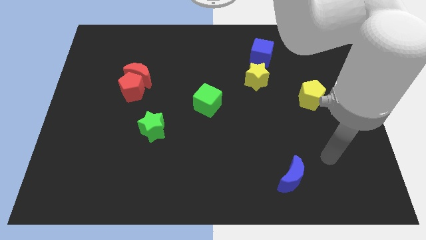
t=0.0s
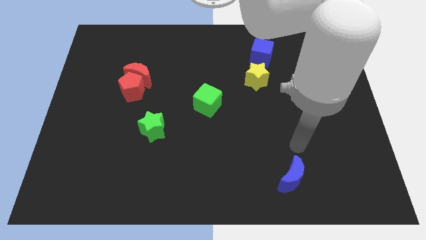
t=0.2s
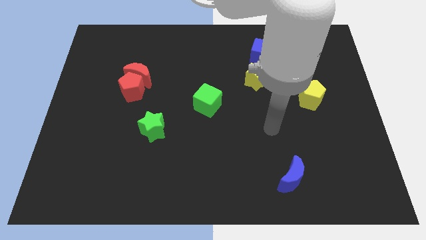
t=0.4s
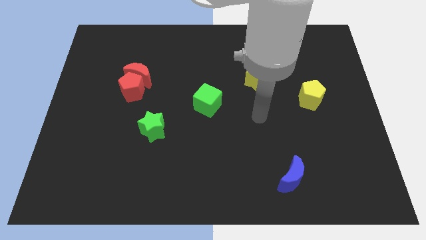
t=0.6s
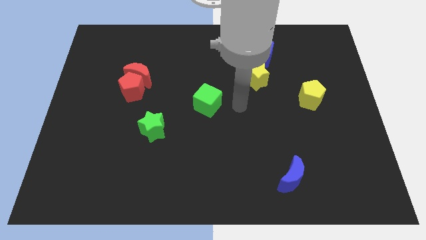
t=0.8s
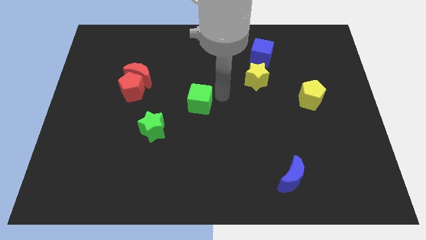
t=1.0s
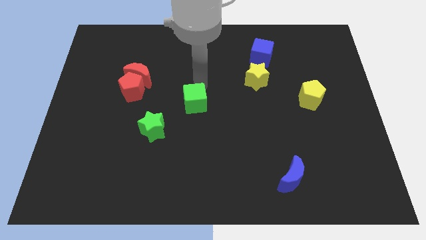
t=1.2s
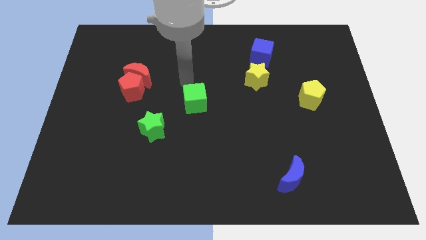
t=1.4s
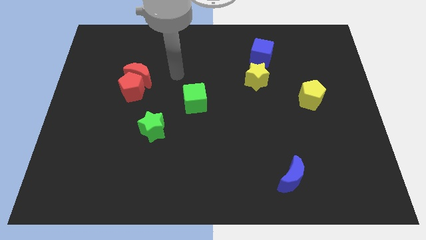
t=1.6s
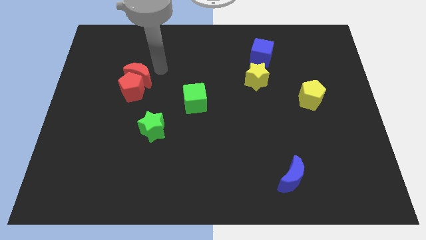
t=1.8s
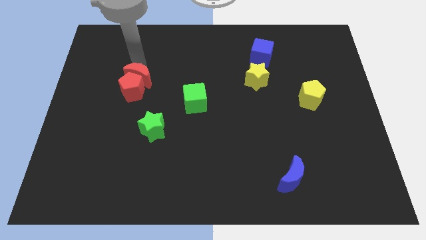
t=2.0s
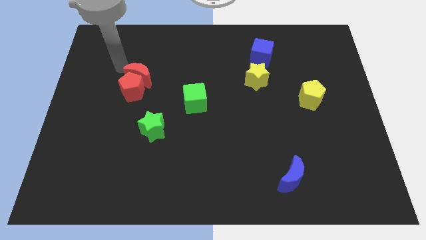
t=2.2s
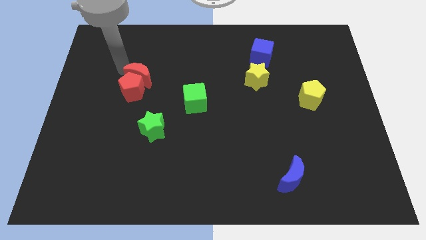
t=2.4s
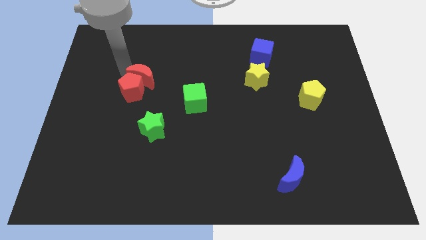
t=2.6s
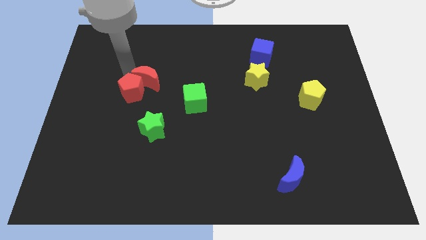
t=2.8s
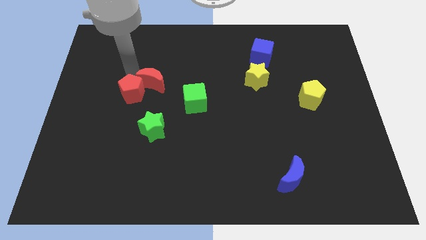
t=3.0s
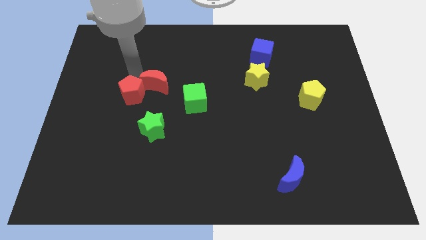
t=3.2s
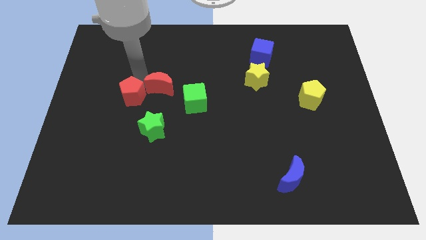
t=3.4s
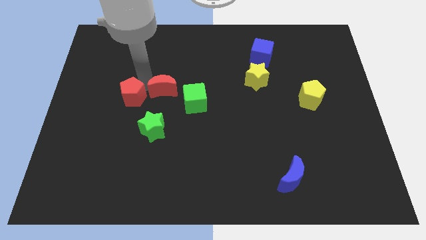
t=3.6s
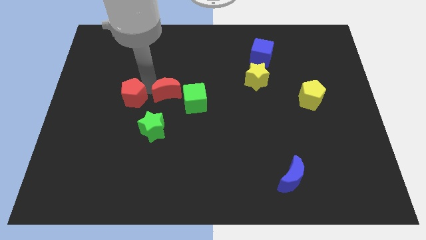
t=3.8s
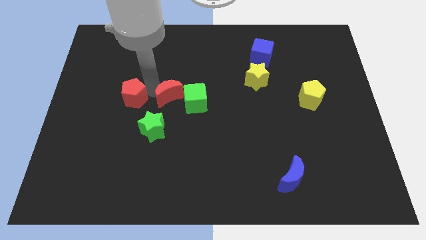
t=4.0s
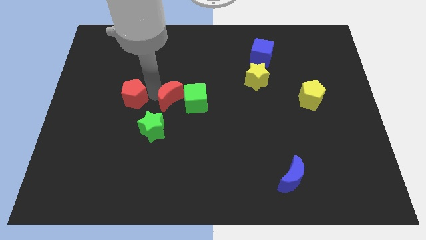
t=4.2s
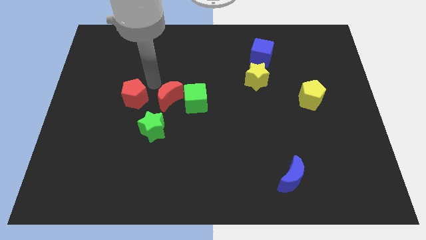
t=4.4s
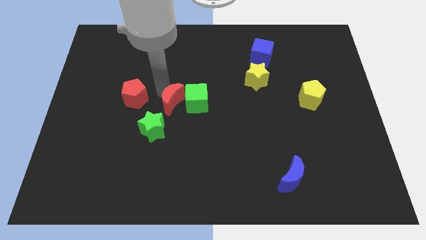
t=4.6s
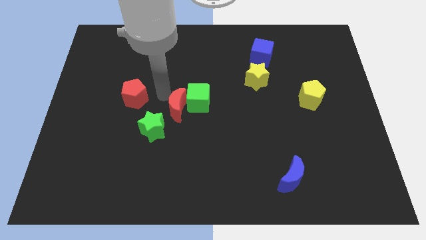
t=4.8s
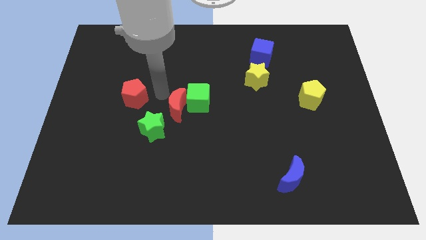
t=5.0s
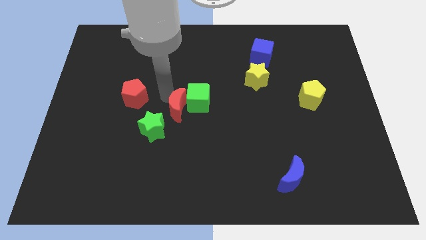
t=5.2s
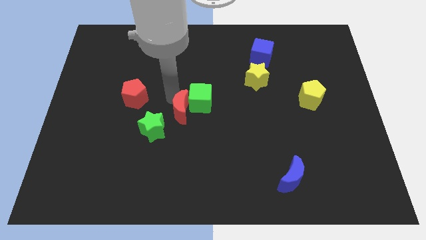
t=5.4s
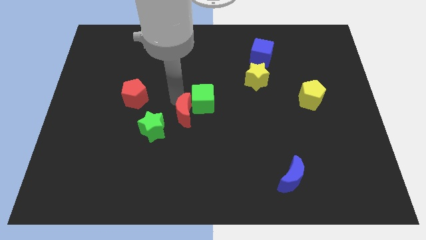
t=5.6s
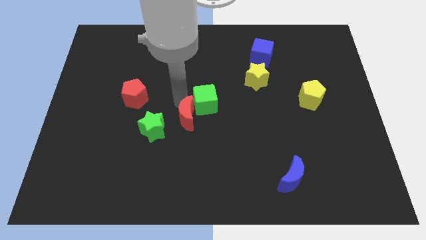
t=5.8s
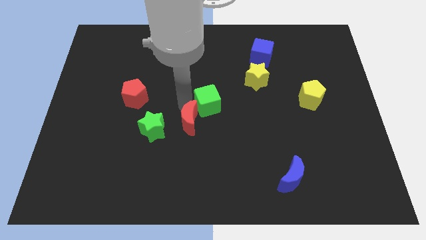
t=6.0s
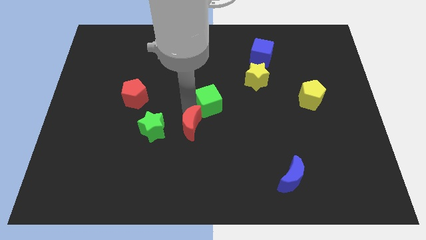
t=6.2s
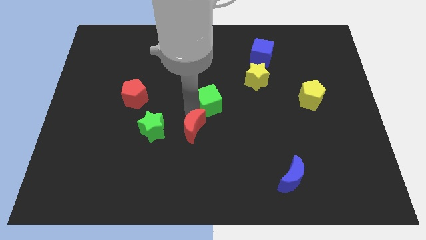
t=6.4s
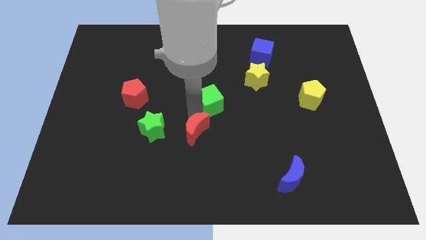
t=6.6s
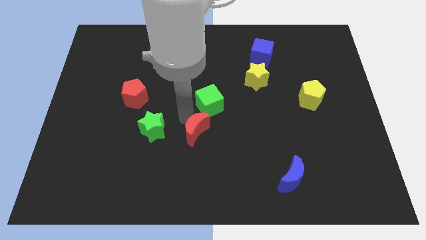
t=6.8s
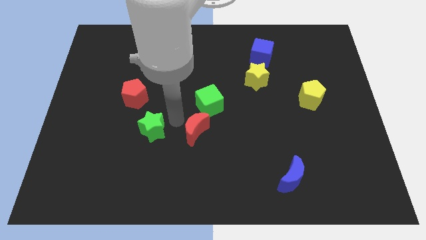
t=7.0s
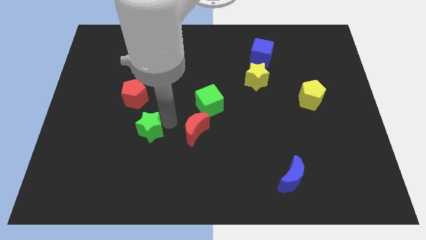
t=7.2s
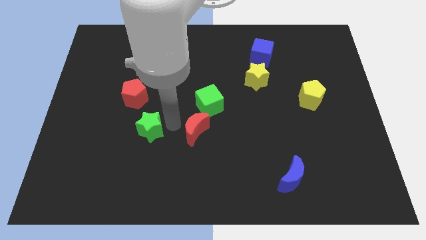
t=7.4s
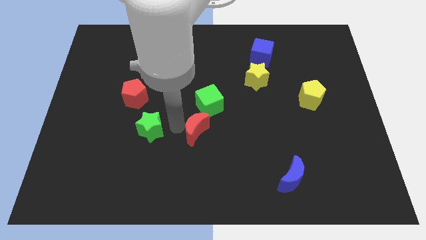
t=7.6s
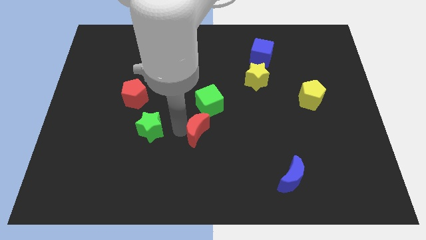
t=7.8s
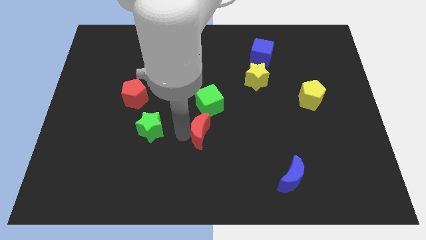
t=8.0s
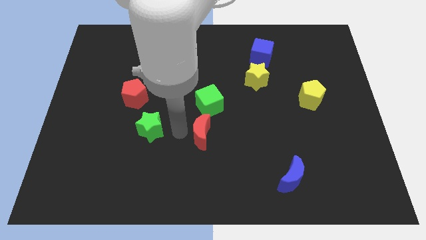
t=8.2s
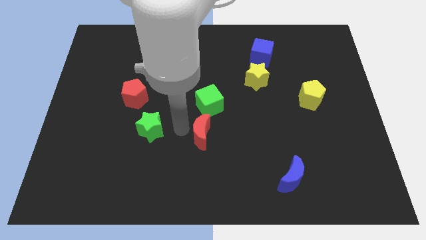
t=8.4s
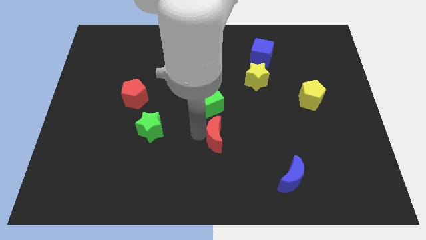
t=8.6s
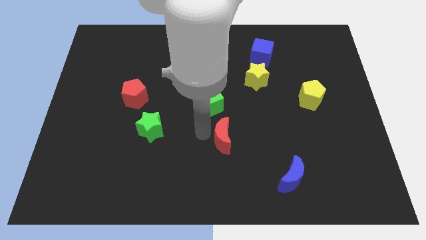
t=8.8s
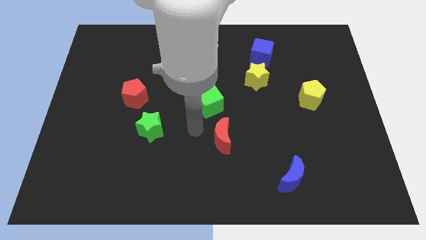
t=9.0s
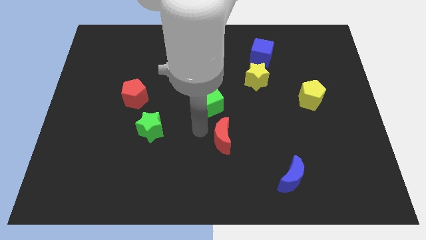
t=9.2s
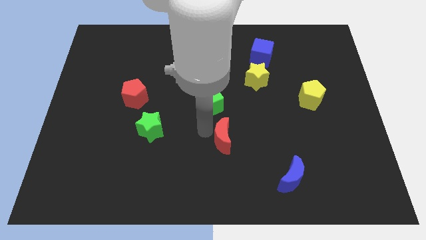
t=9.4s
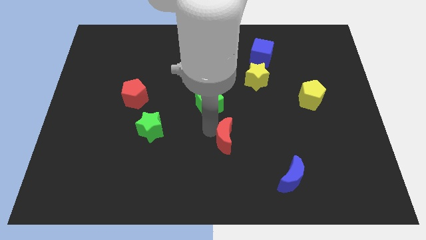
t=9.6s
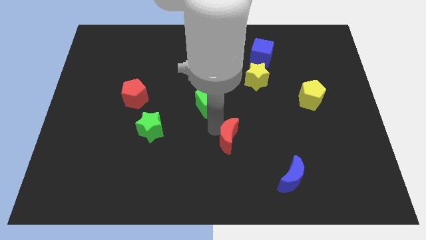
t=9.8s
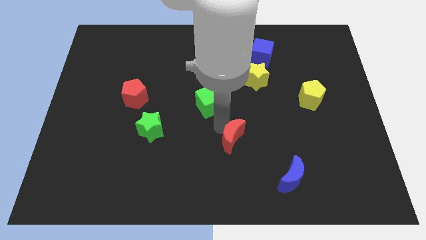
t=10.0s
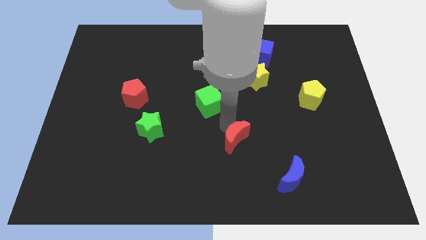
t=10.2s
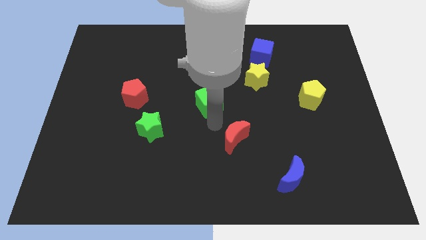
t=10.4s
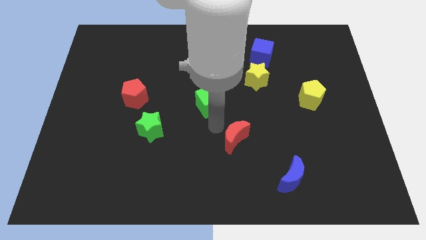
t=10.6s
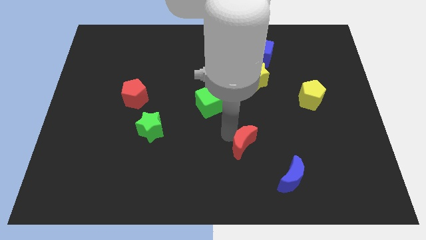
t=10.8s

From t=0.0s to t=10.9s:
move the red moon to the top left of the blue moon

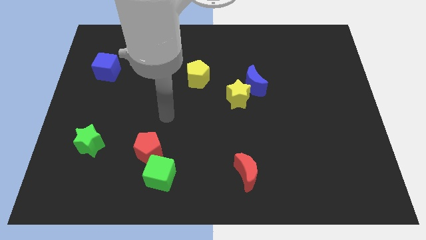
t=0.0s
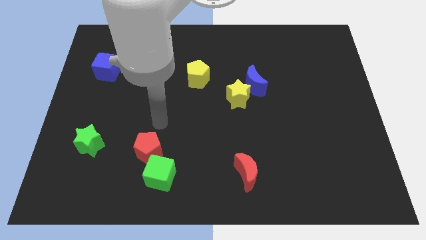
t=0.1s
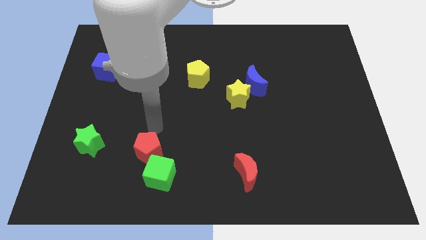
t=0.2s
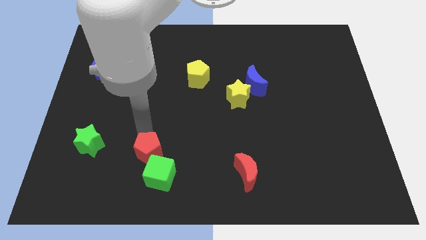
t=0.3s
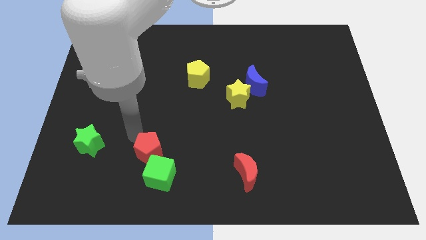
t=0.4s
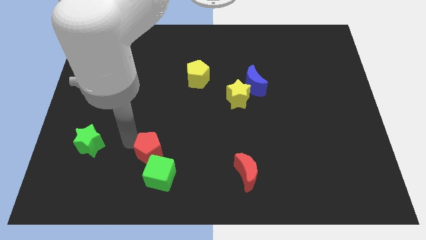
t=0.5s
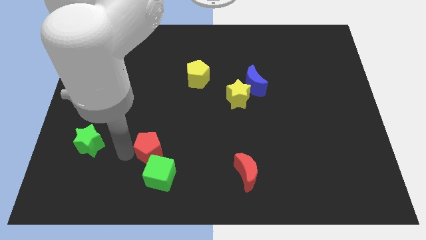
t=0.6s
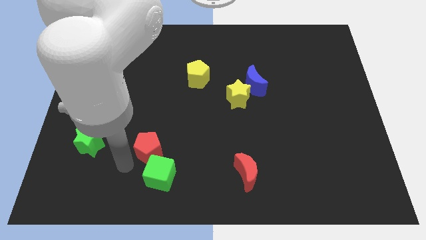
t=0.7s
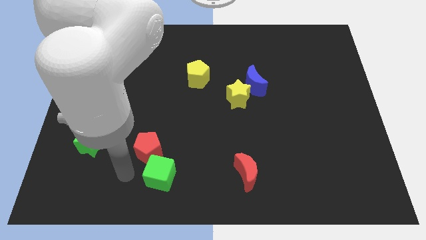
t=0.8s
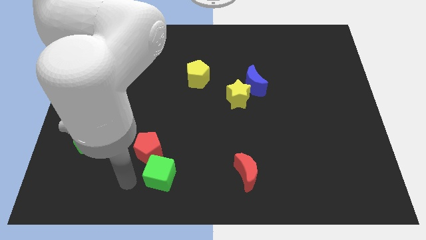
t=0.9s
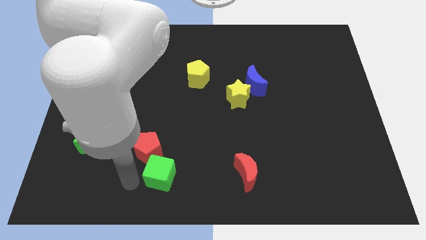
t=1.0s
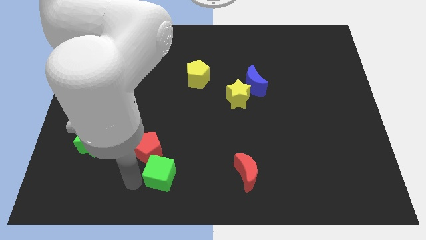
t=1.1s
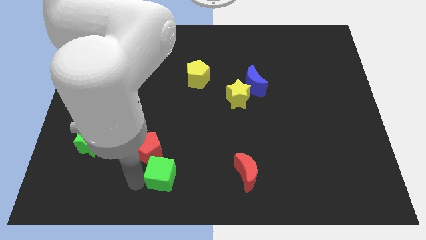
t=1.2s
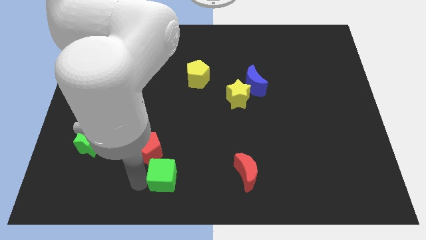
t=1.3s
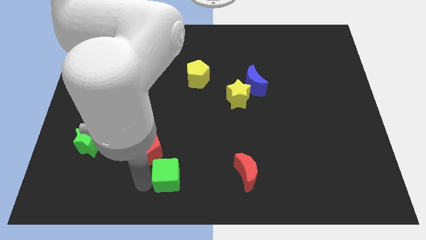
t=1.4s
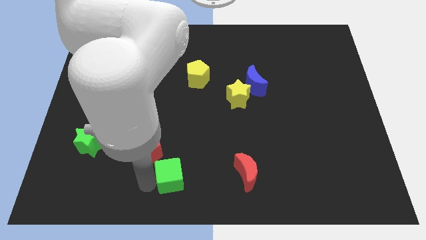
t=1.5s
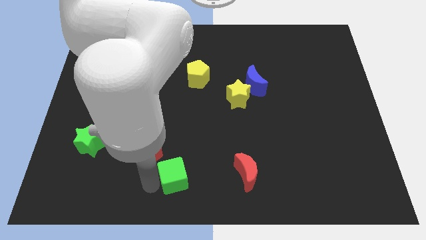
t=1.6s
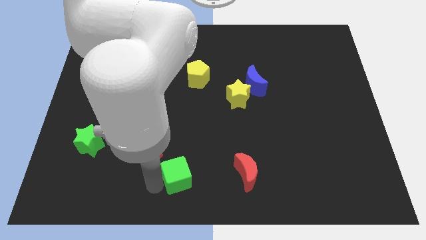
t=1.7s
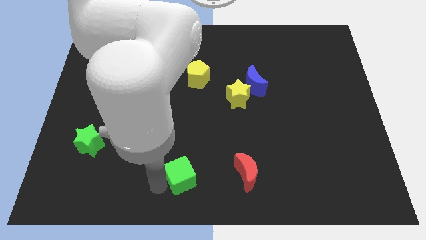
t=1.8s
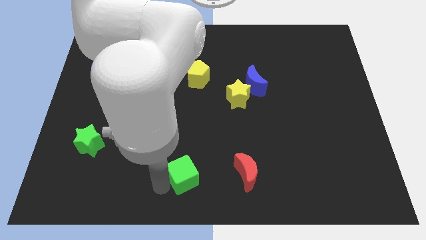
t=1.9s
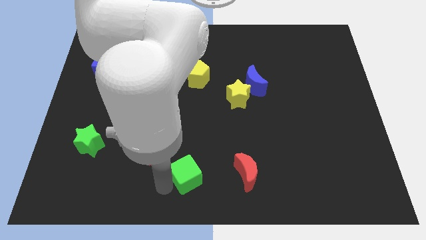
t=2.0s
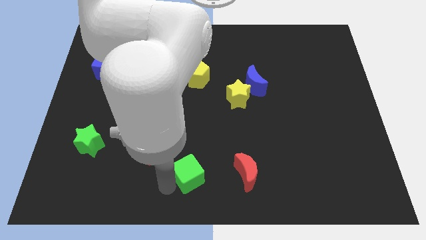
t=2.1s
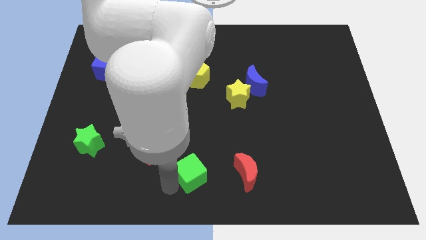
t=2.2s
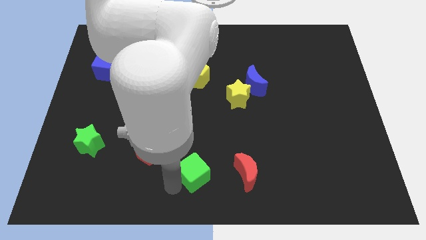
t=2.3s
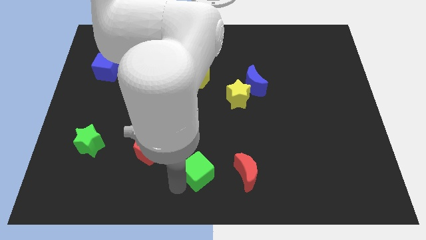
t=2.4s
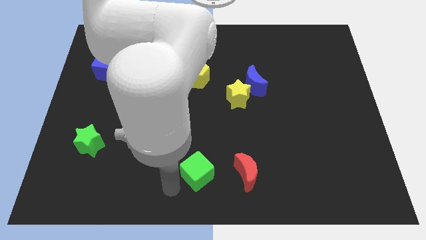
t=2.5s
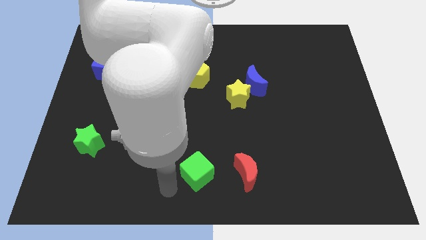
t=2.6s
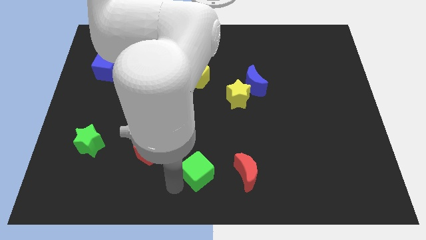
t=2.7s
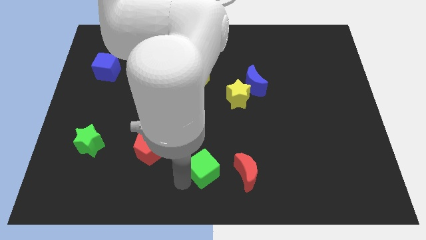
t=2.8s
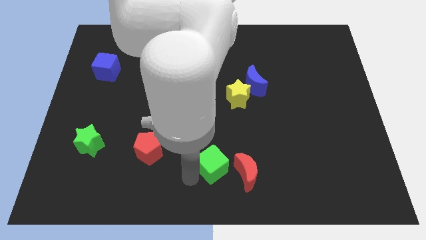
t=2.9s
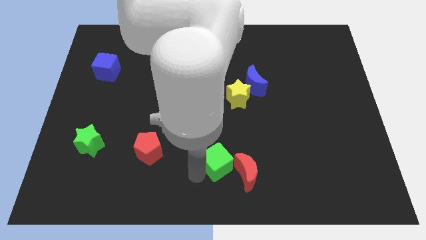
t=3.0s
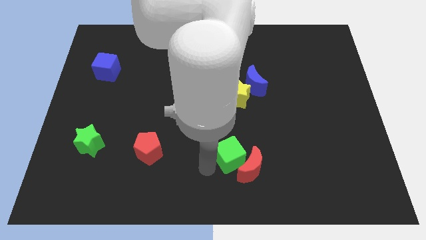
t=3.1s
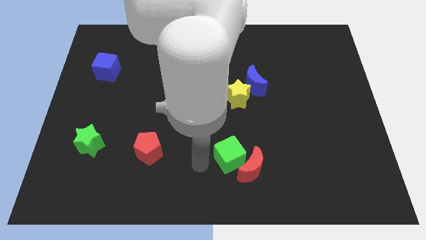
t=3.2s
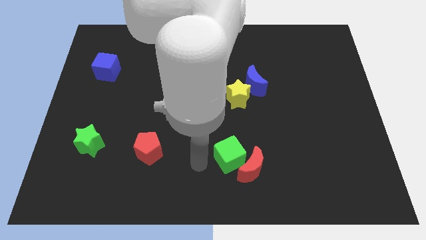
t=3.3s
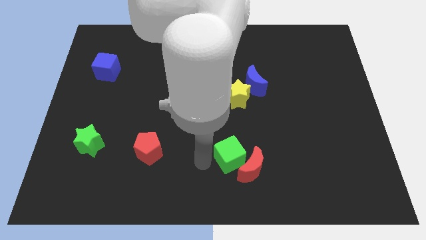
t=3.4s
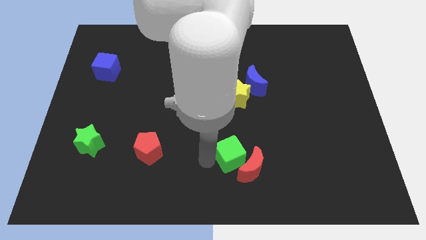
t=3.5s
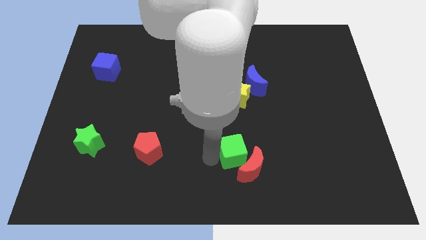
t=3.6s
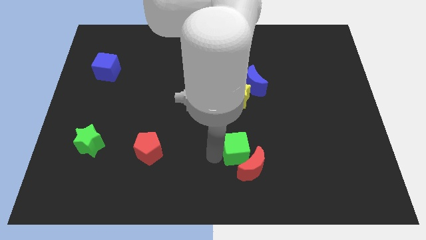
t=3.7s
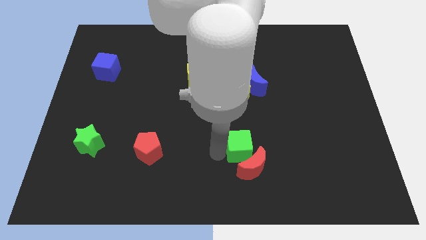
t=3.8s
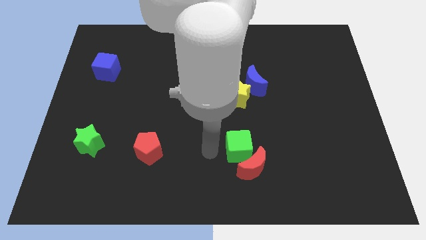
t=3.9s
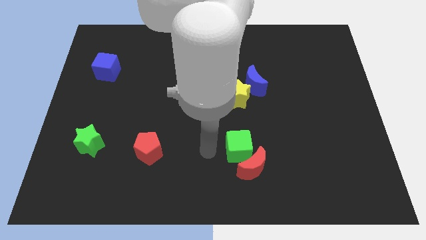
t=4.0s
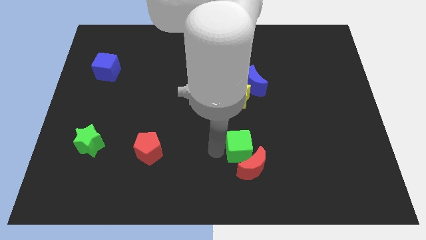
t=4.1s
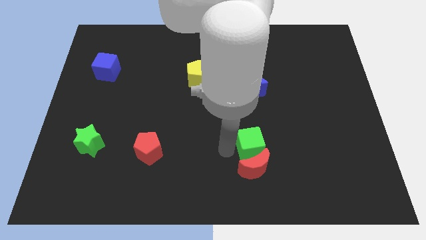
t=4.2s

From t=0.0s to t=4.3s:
push the green cube diagonally up and to the right of the red moon
